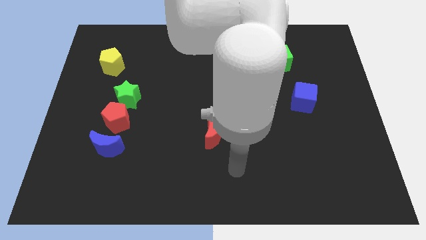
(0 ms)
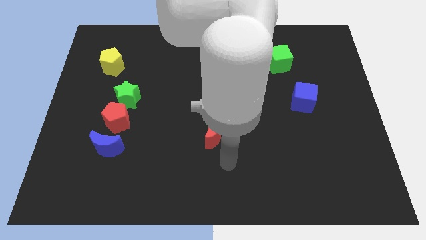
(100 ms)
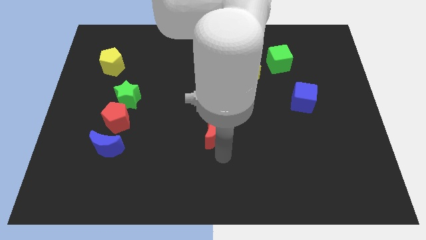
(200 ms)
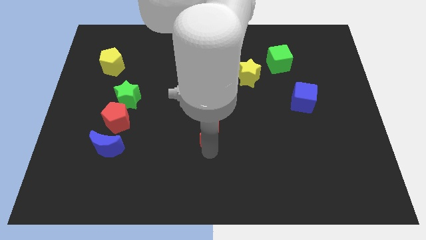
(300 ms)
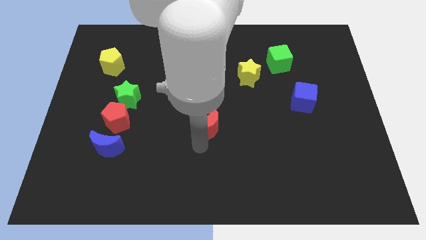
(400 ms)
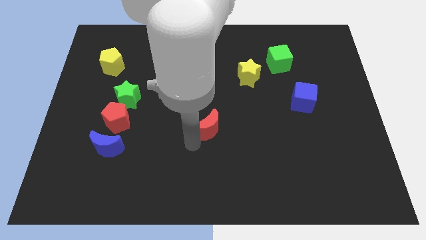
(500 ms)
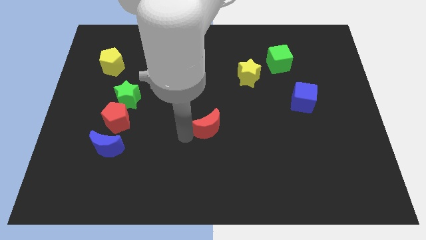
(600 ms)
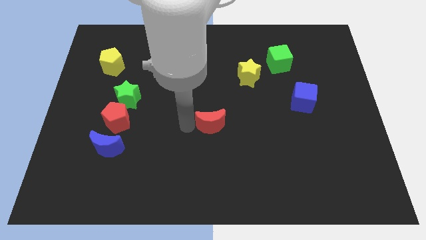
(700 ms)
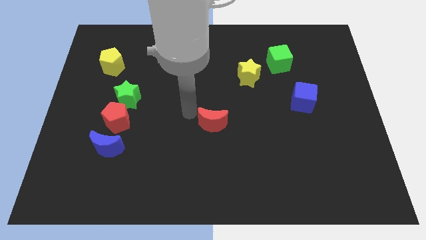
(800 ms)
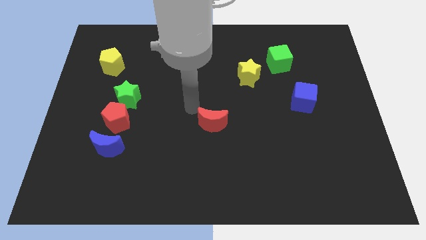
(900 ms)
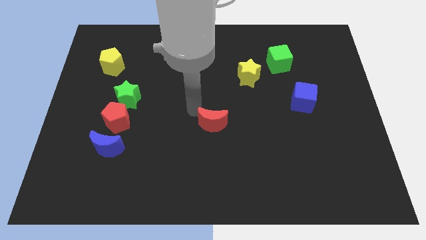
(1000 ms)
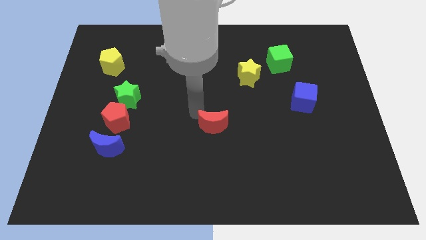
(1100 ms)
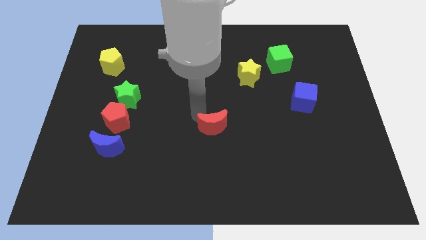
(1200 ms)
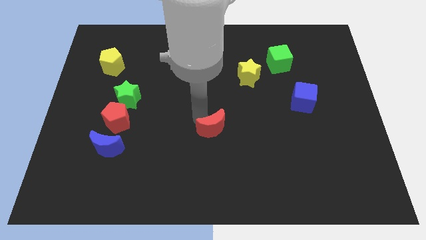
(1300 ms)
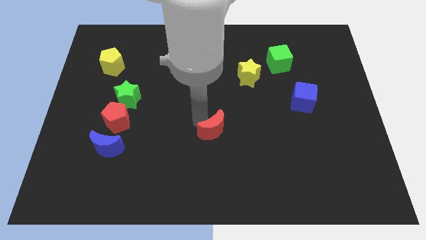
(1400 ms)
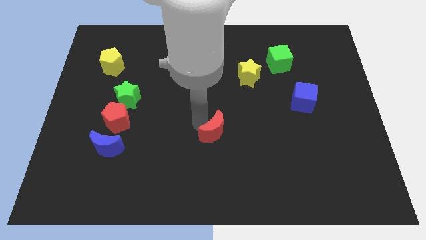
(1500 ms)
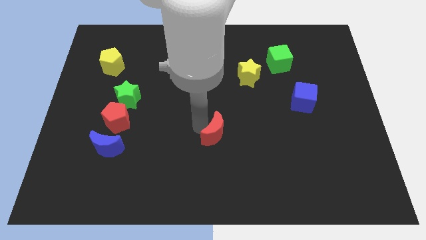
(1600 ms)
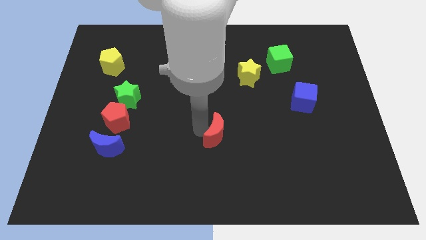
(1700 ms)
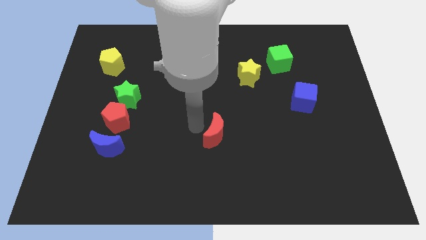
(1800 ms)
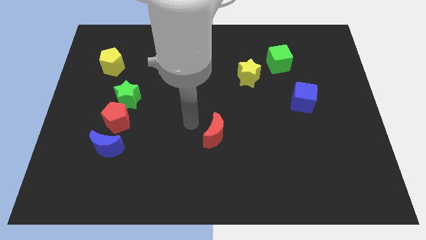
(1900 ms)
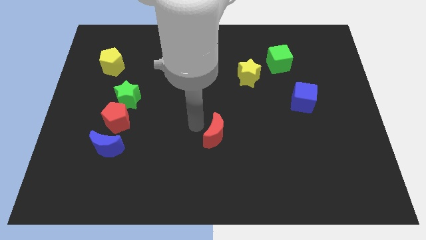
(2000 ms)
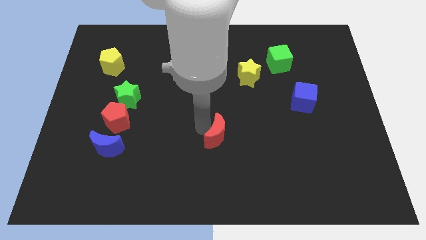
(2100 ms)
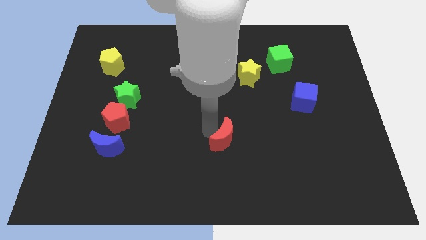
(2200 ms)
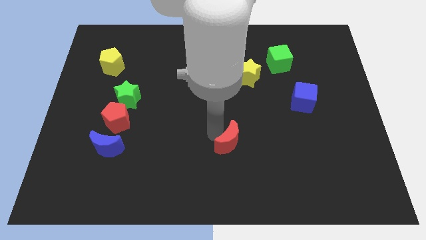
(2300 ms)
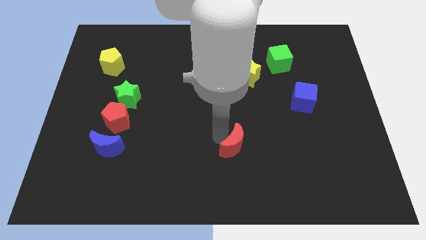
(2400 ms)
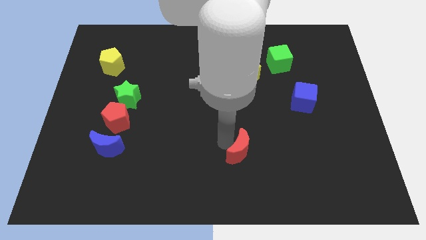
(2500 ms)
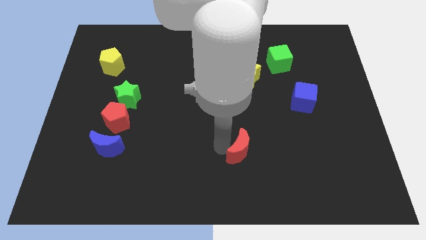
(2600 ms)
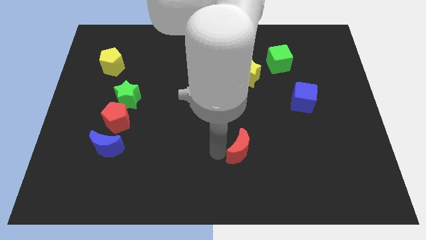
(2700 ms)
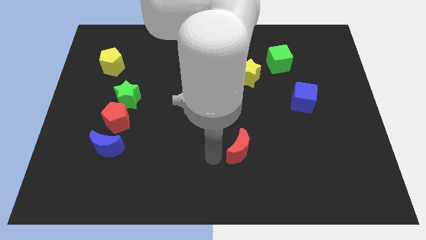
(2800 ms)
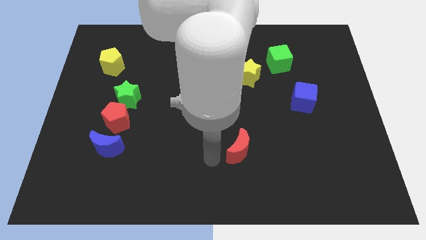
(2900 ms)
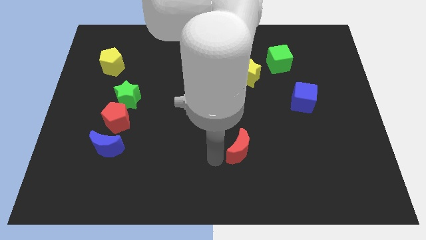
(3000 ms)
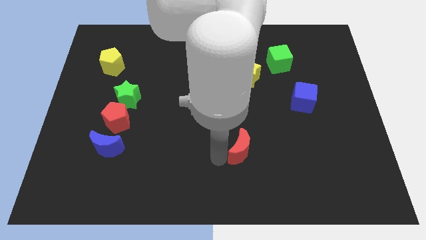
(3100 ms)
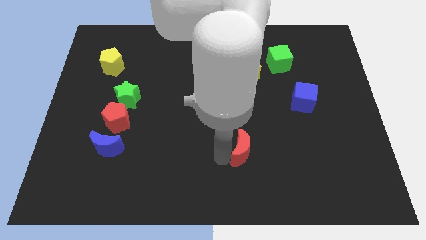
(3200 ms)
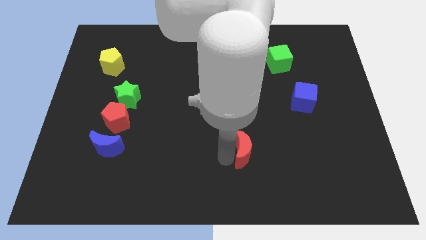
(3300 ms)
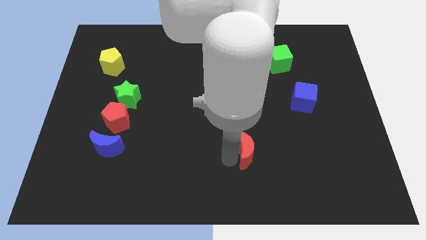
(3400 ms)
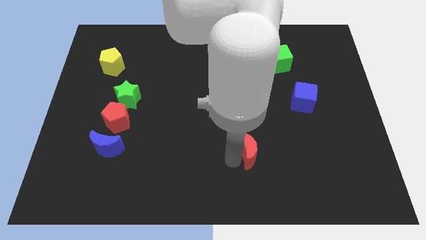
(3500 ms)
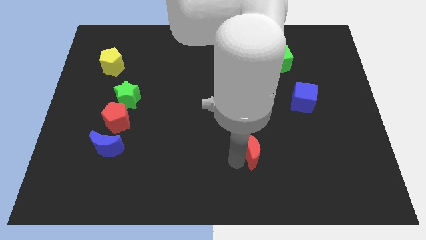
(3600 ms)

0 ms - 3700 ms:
move the red moon to the right somewhat

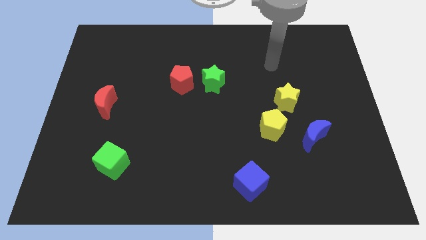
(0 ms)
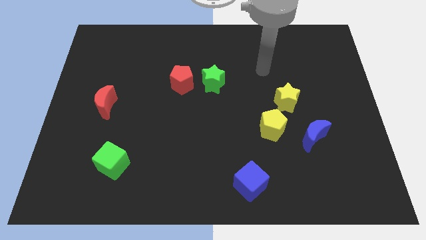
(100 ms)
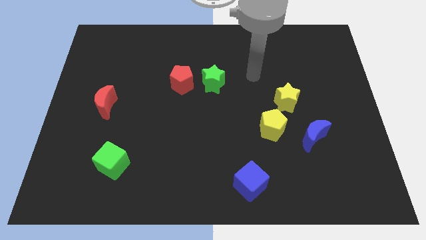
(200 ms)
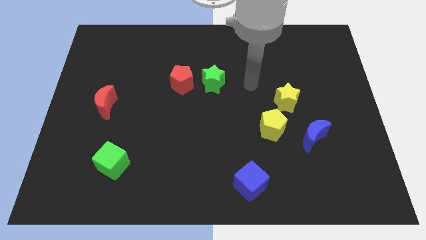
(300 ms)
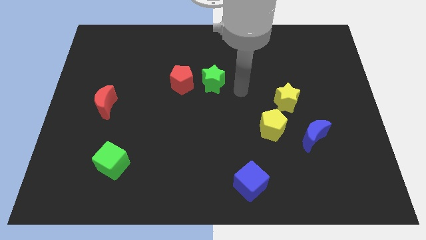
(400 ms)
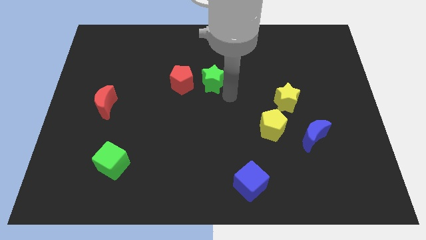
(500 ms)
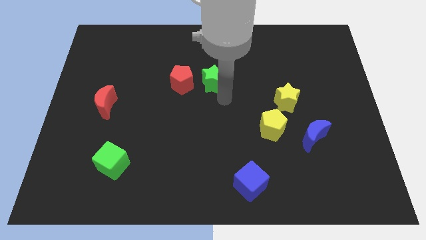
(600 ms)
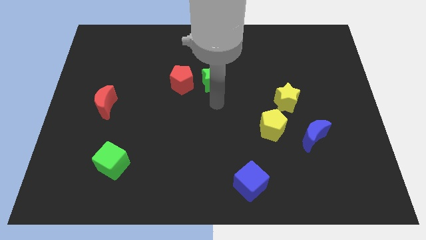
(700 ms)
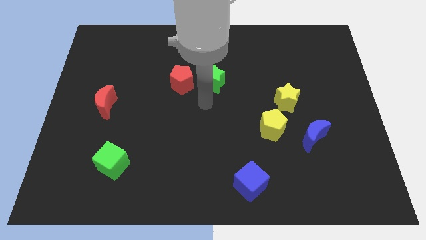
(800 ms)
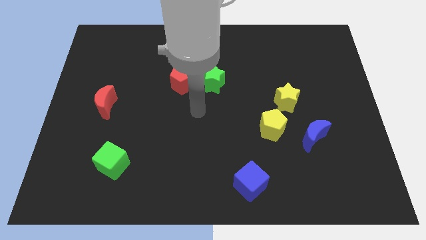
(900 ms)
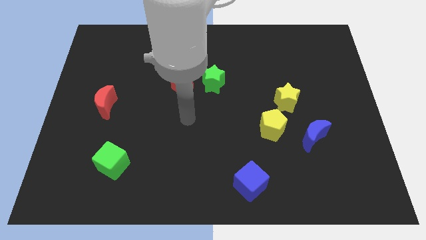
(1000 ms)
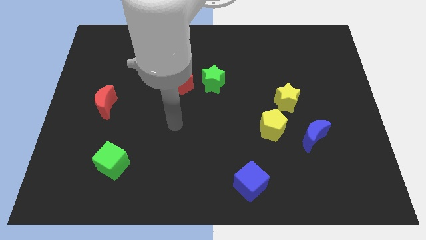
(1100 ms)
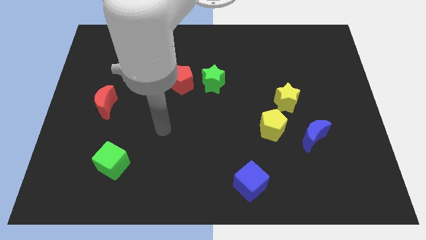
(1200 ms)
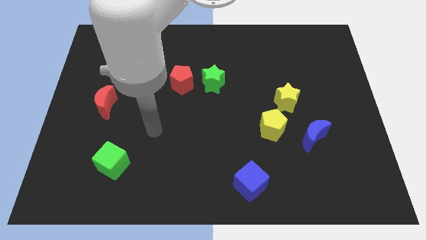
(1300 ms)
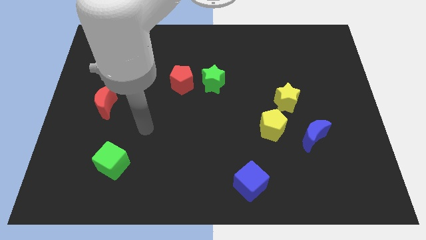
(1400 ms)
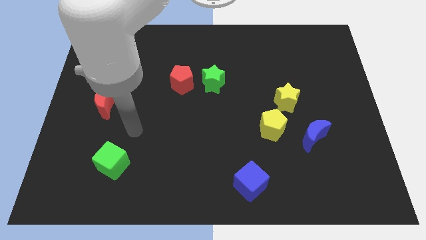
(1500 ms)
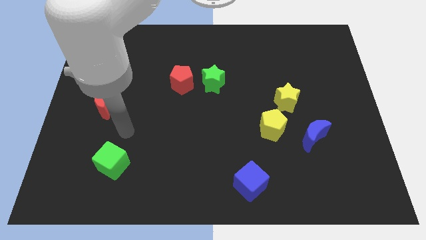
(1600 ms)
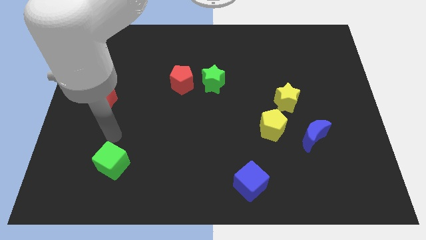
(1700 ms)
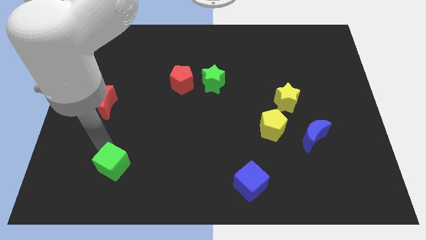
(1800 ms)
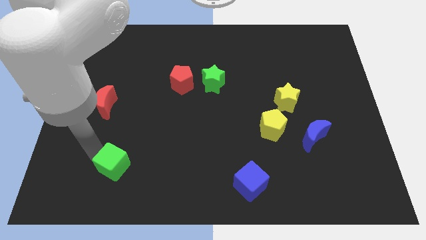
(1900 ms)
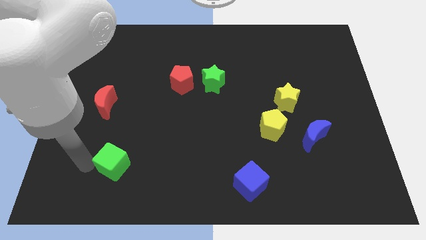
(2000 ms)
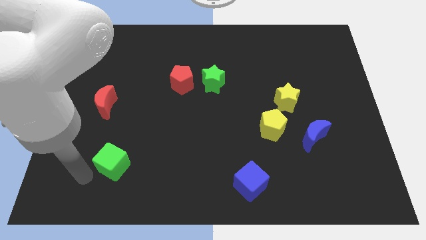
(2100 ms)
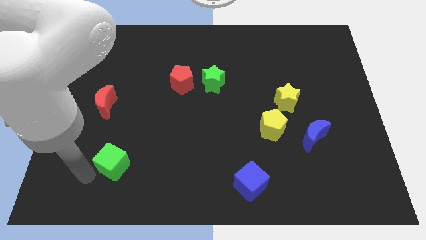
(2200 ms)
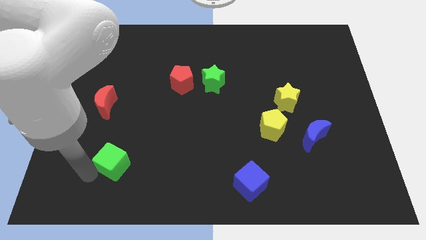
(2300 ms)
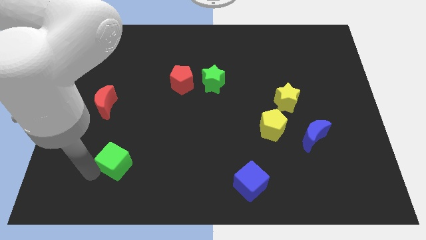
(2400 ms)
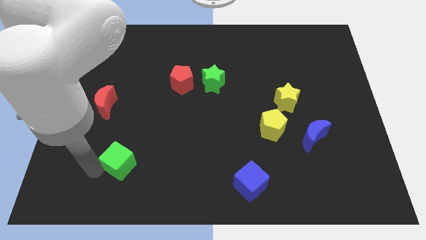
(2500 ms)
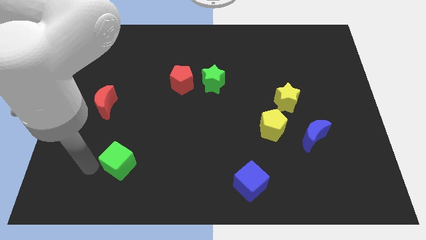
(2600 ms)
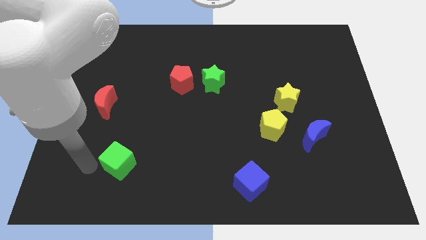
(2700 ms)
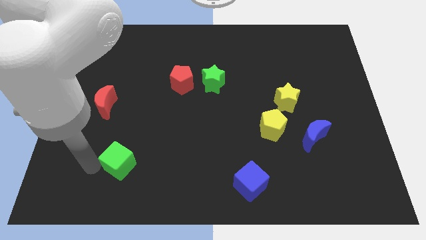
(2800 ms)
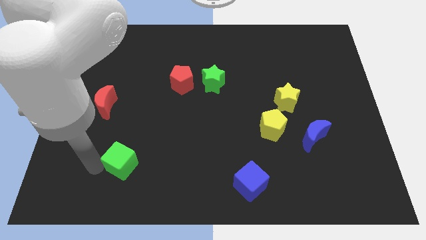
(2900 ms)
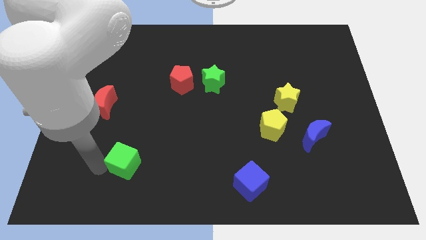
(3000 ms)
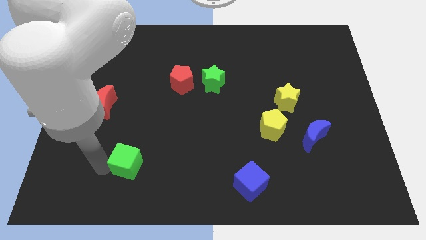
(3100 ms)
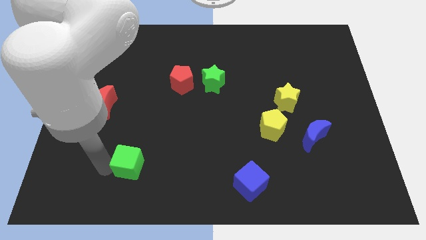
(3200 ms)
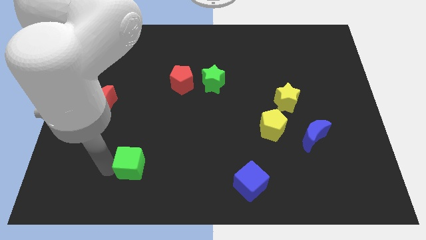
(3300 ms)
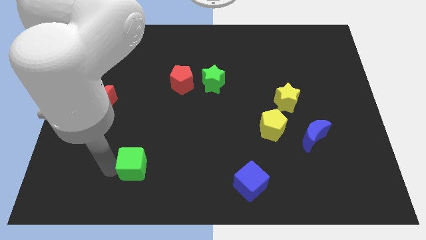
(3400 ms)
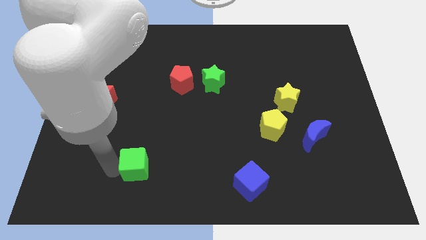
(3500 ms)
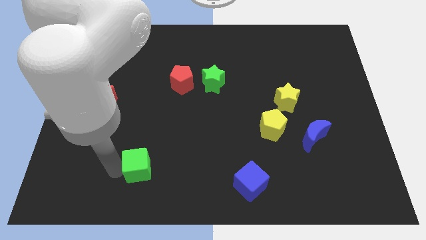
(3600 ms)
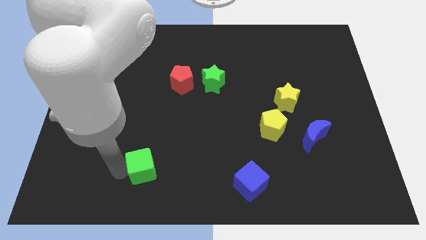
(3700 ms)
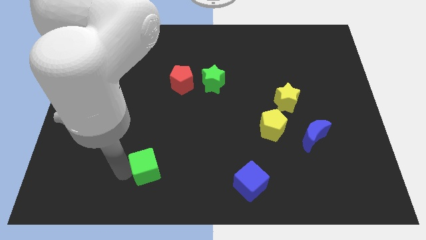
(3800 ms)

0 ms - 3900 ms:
push the green cube slightly to the right

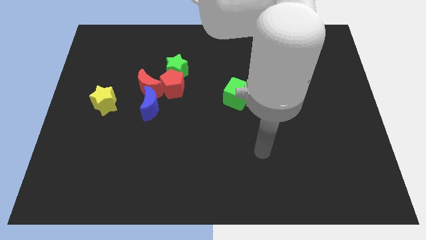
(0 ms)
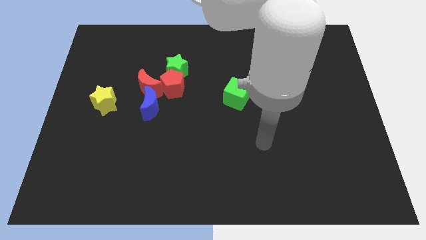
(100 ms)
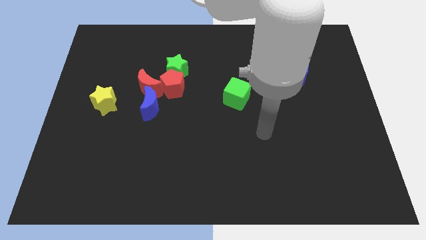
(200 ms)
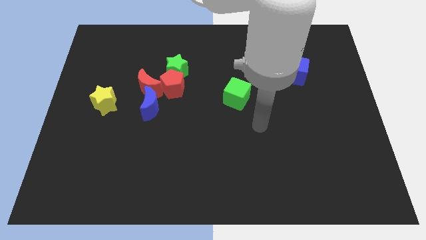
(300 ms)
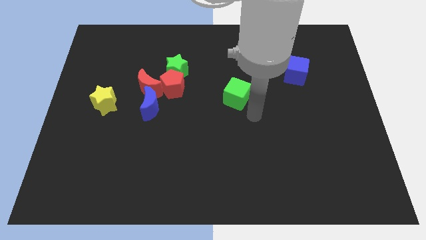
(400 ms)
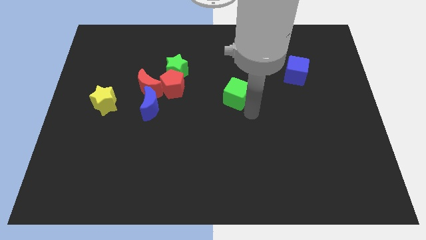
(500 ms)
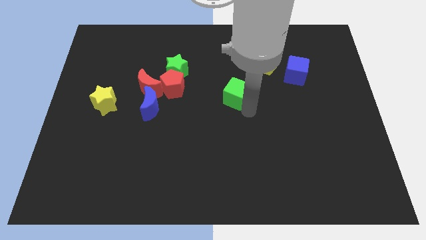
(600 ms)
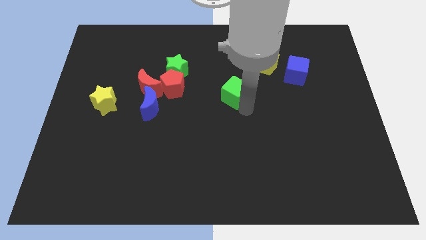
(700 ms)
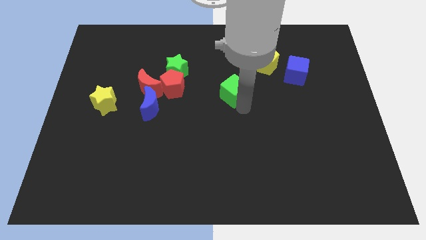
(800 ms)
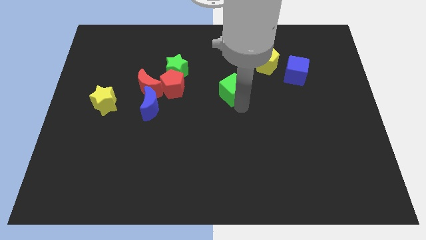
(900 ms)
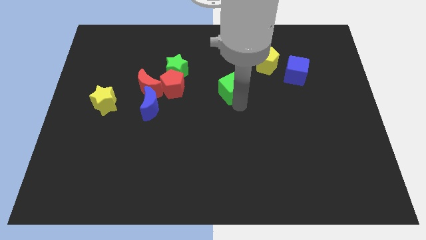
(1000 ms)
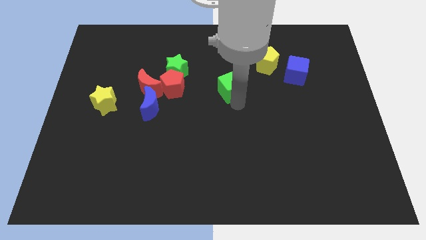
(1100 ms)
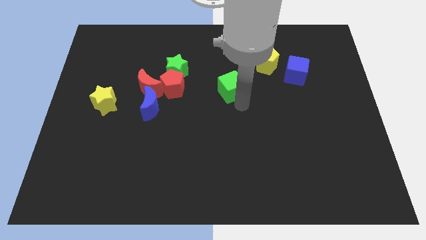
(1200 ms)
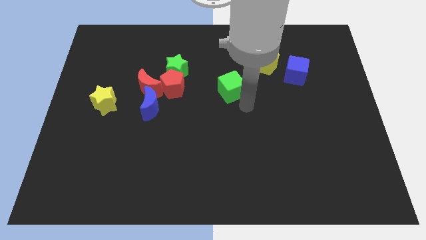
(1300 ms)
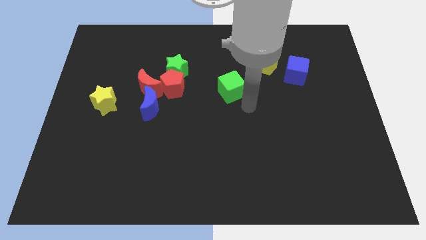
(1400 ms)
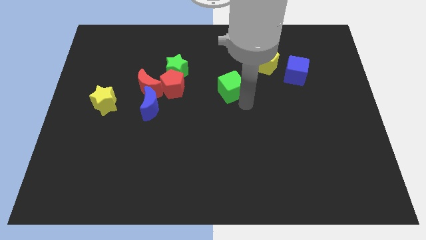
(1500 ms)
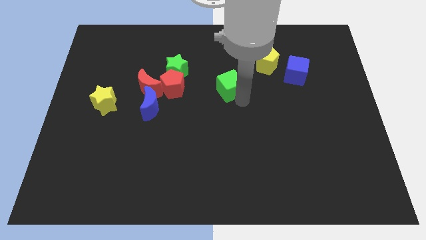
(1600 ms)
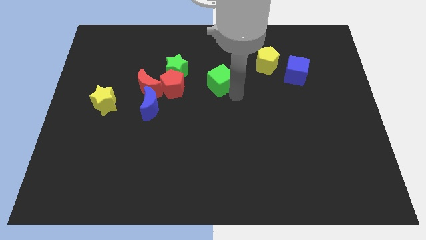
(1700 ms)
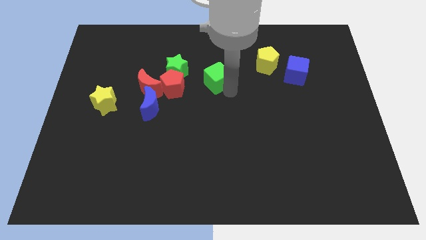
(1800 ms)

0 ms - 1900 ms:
slide the green cube slightly upwards and to the left
